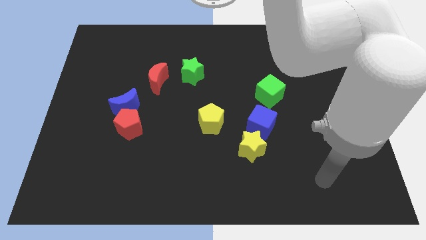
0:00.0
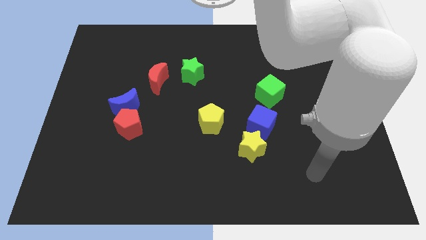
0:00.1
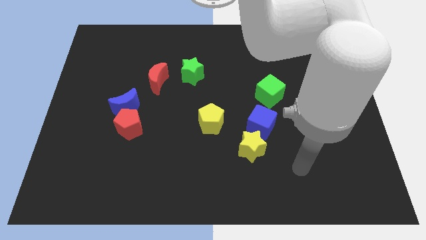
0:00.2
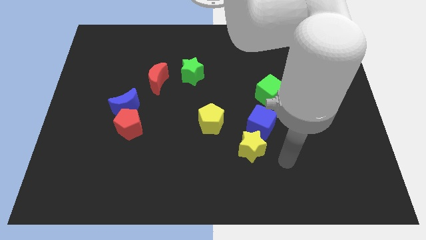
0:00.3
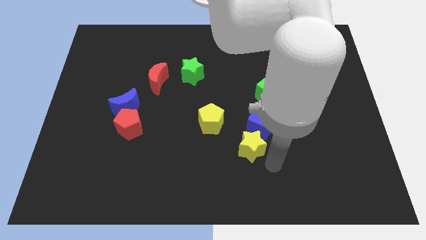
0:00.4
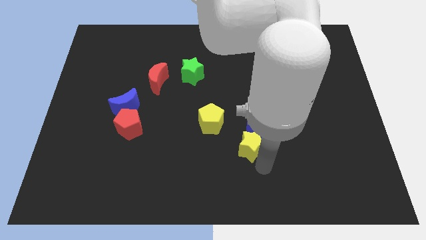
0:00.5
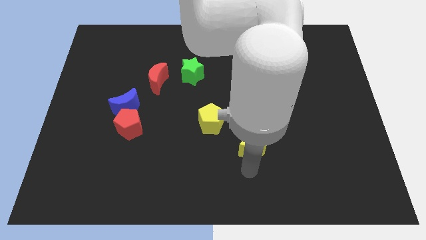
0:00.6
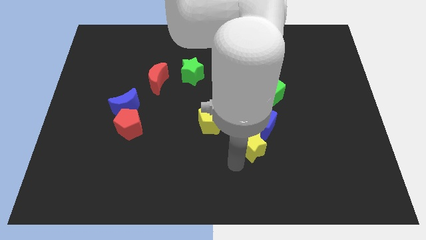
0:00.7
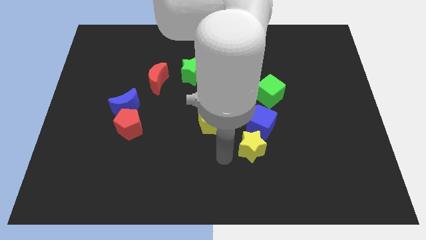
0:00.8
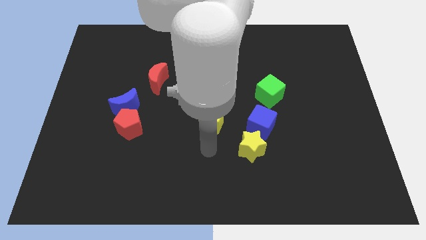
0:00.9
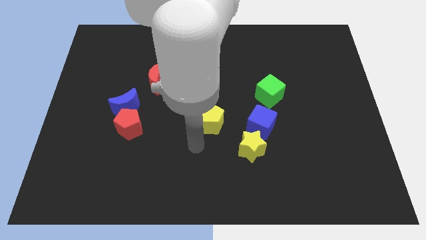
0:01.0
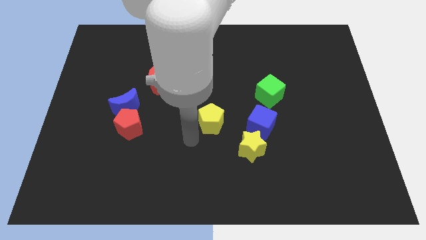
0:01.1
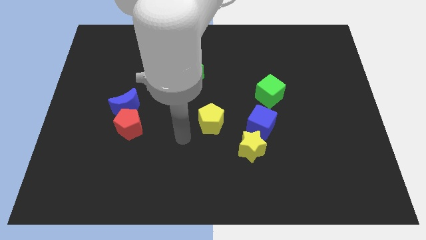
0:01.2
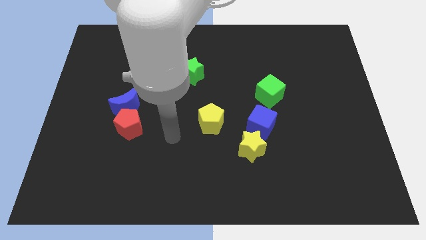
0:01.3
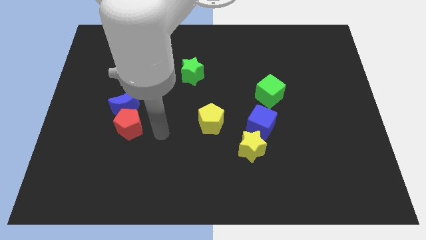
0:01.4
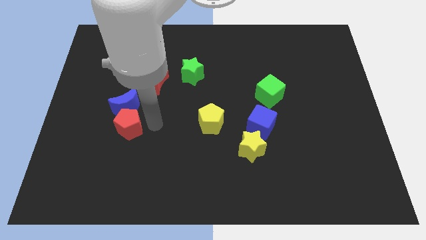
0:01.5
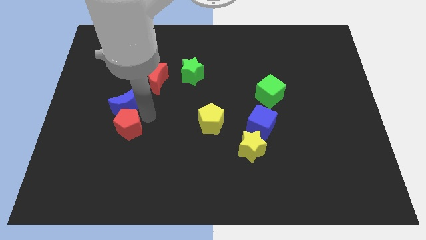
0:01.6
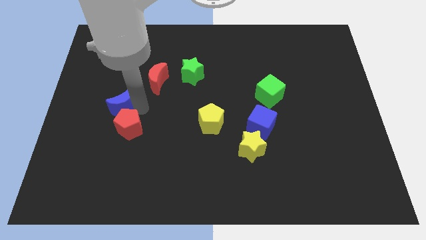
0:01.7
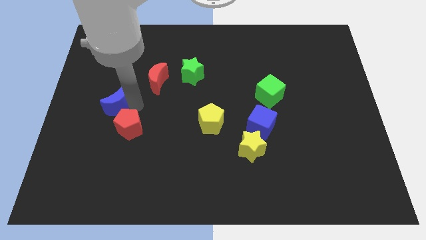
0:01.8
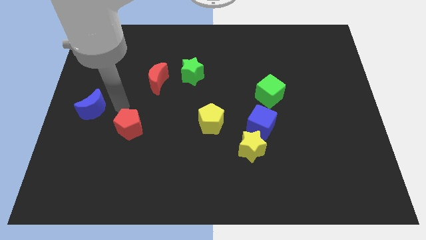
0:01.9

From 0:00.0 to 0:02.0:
pull the red pentagon apart from the blue moon

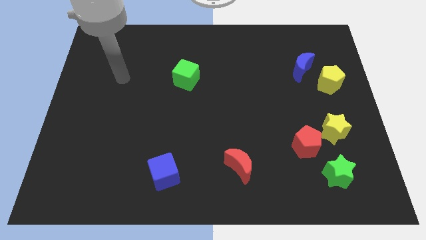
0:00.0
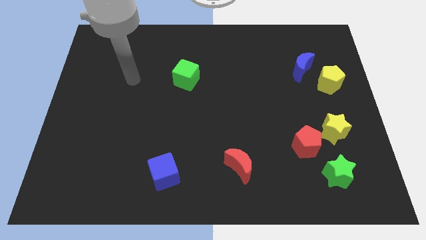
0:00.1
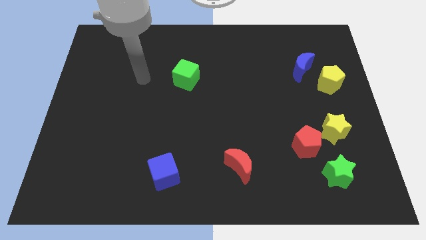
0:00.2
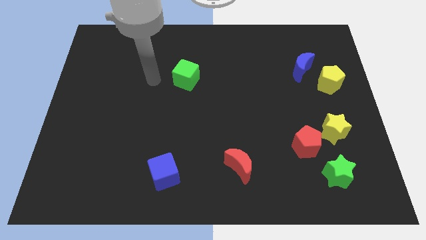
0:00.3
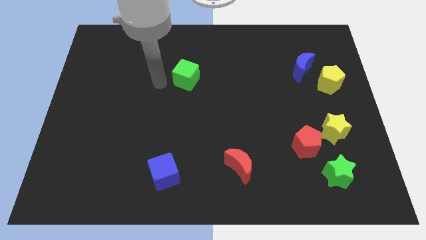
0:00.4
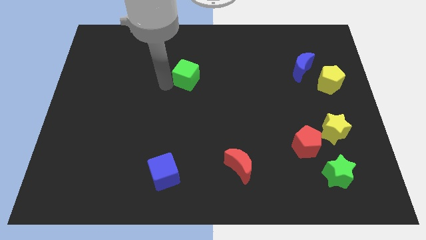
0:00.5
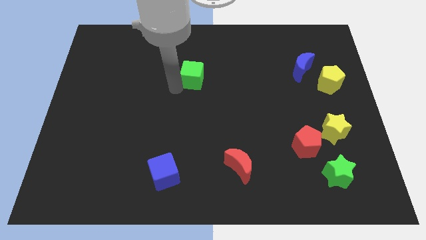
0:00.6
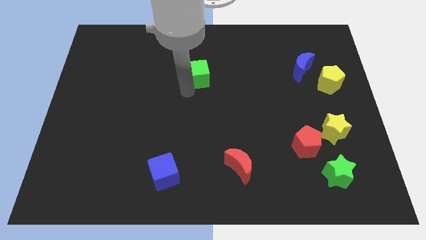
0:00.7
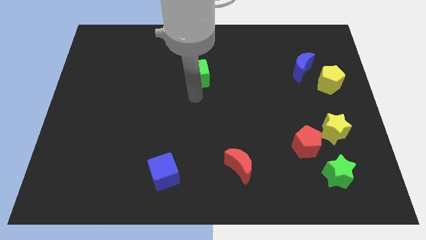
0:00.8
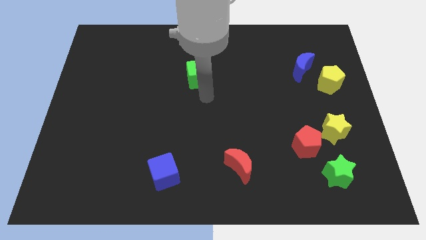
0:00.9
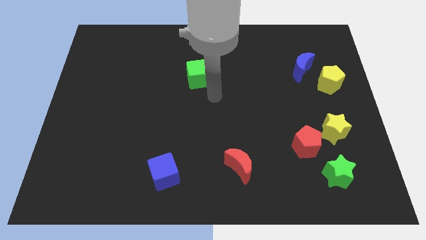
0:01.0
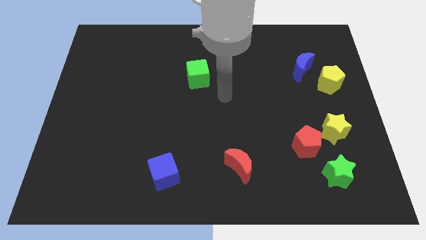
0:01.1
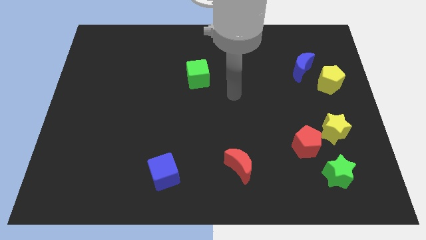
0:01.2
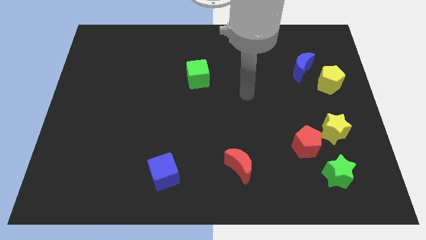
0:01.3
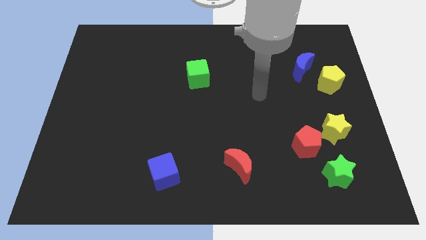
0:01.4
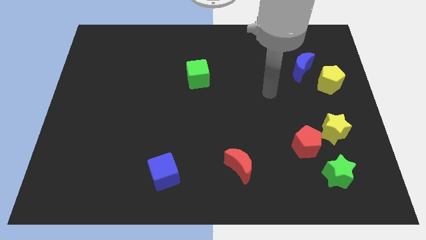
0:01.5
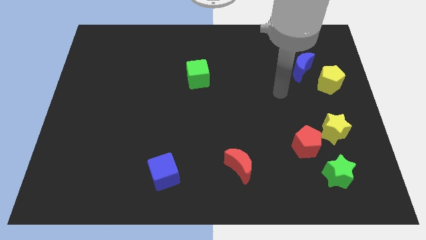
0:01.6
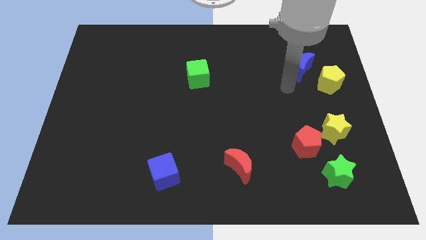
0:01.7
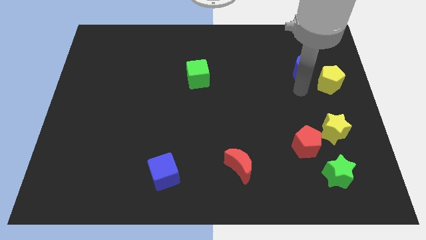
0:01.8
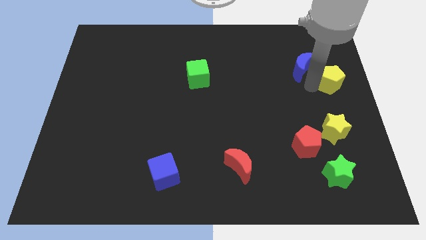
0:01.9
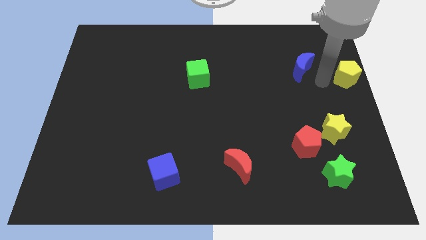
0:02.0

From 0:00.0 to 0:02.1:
separate the blue moon from the yellow pentagon

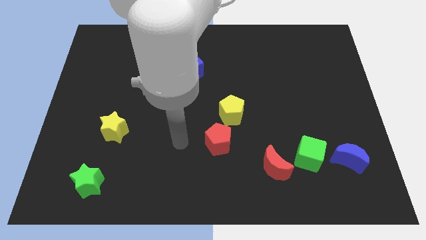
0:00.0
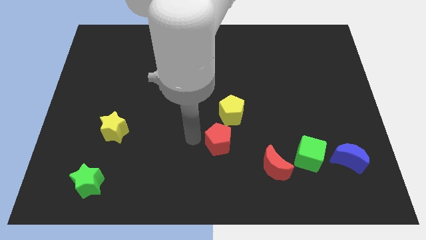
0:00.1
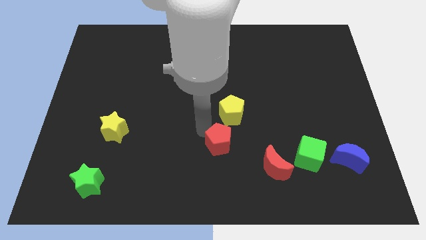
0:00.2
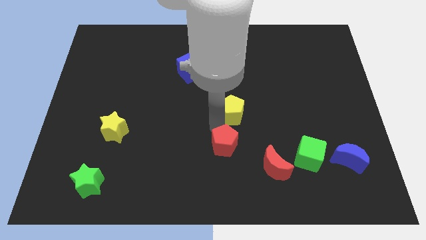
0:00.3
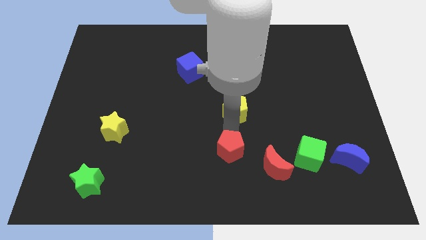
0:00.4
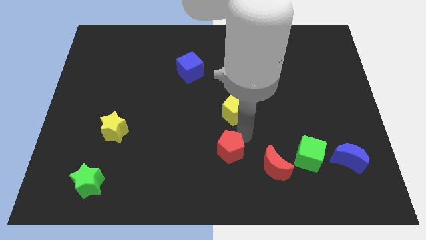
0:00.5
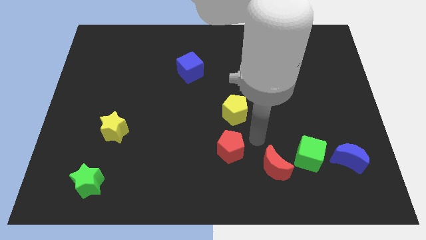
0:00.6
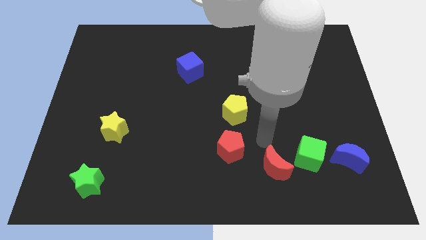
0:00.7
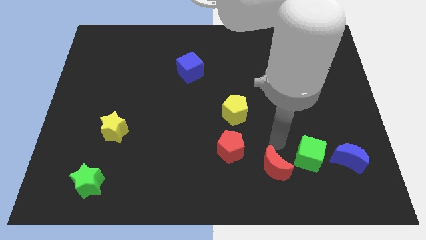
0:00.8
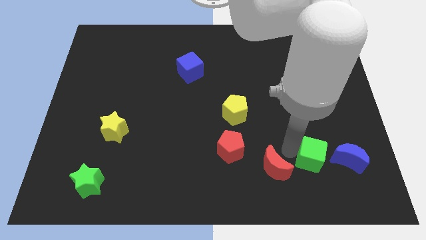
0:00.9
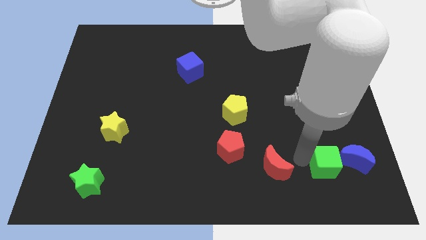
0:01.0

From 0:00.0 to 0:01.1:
separate the red moon from the green cube

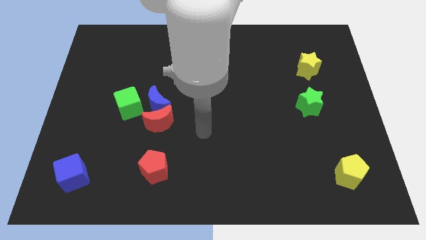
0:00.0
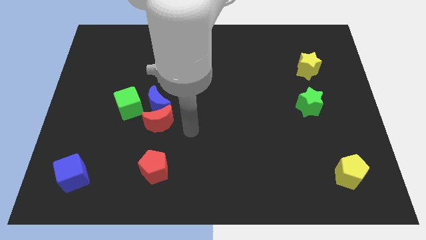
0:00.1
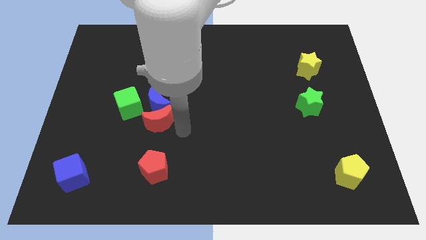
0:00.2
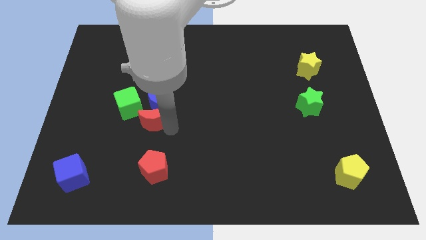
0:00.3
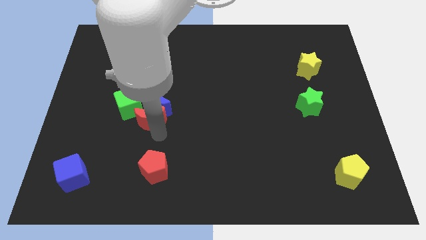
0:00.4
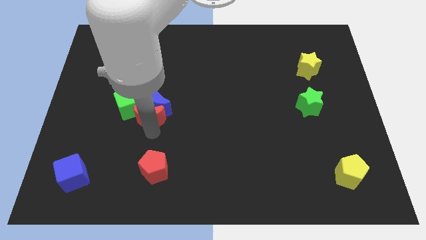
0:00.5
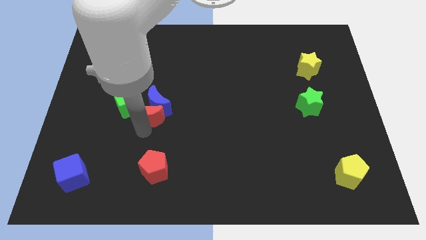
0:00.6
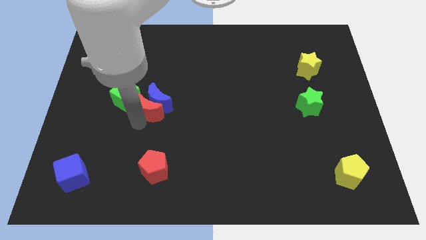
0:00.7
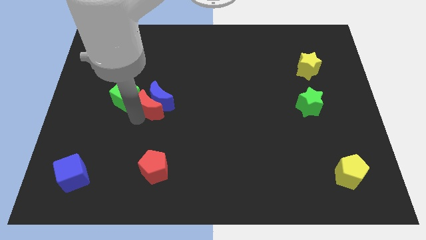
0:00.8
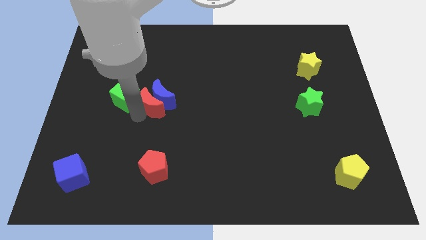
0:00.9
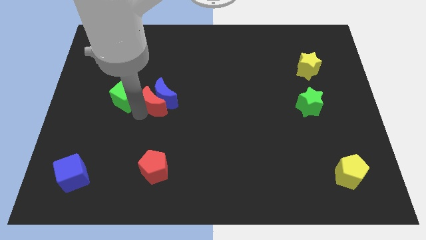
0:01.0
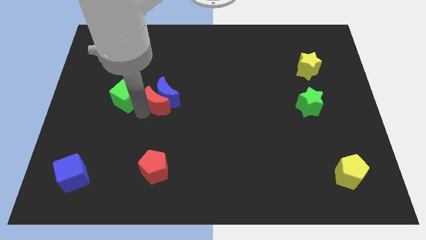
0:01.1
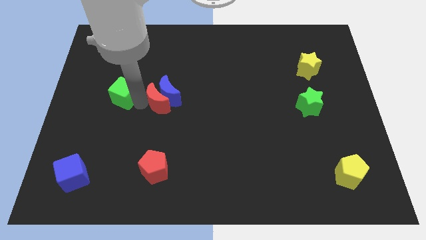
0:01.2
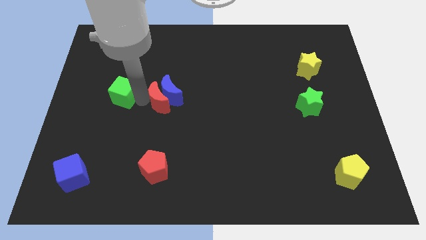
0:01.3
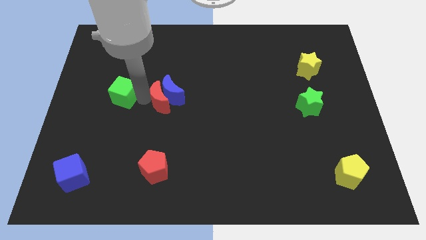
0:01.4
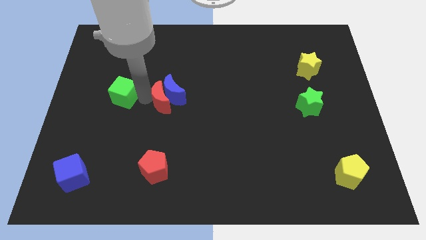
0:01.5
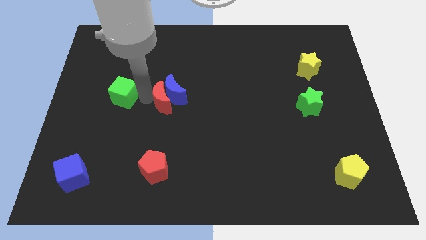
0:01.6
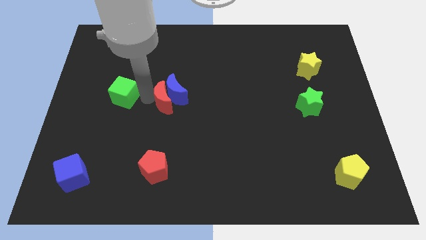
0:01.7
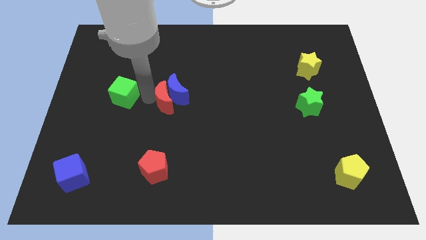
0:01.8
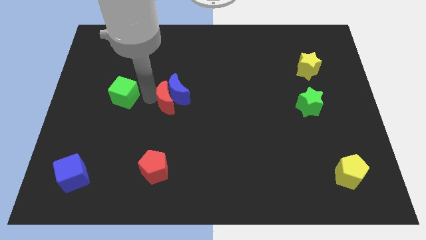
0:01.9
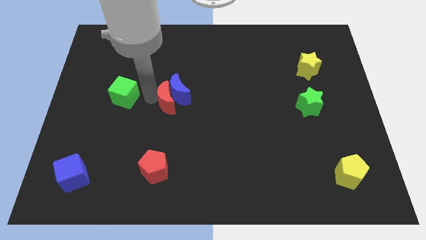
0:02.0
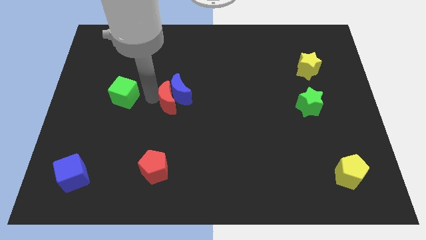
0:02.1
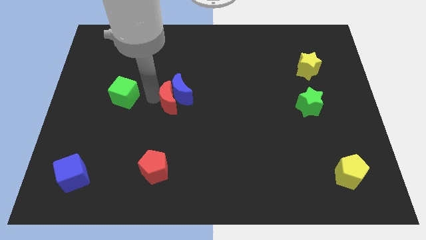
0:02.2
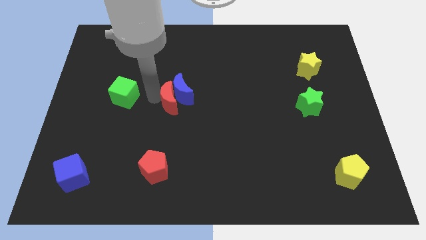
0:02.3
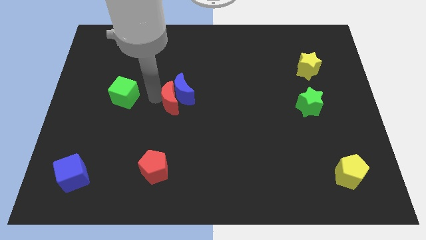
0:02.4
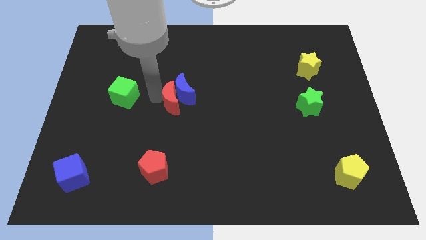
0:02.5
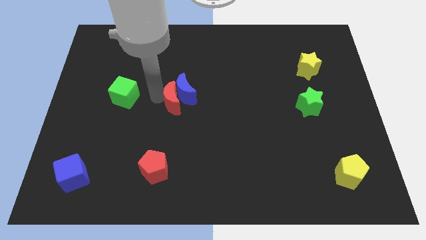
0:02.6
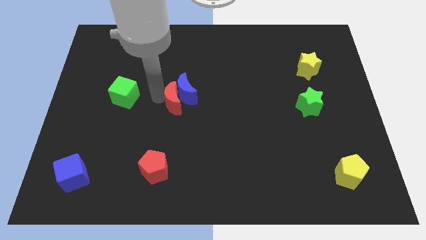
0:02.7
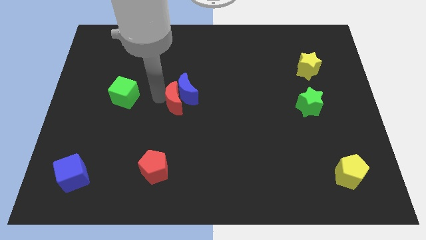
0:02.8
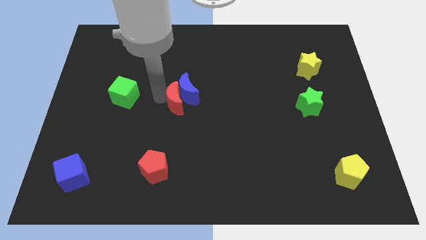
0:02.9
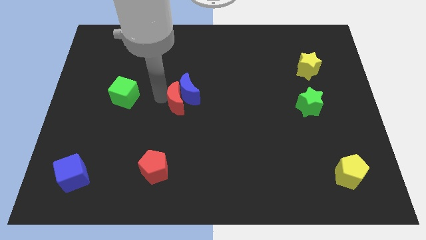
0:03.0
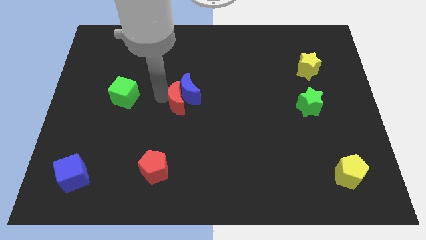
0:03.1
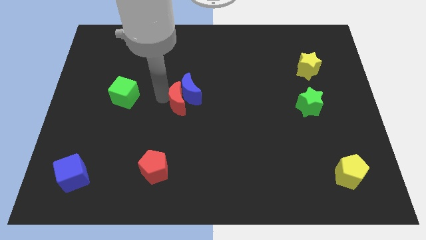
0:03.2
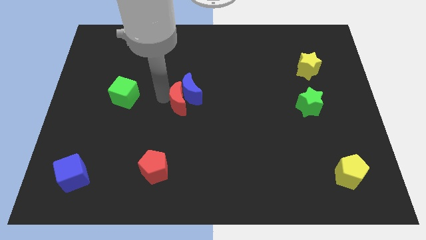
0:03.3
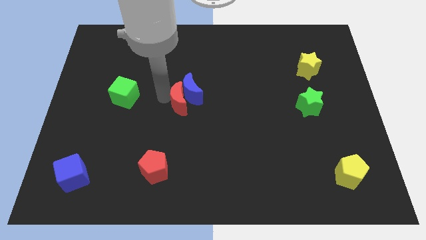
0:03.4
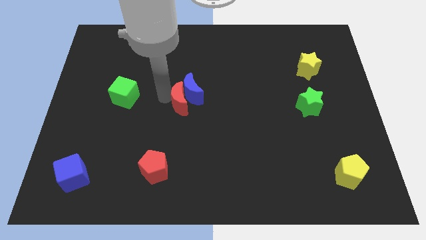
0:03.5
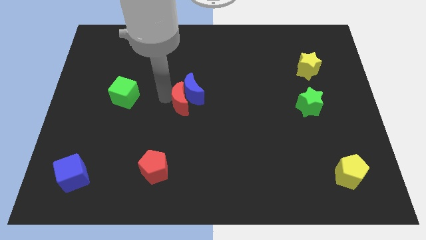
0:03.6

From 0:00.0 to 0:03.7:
separate the blue moon from the red moon and green cube

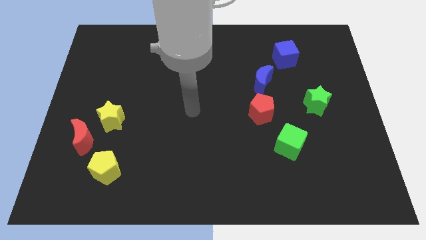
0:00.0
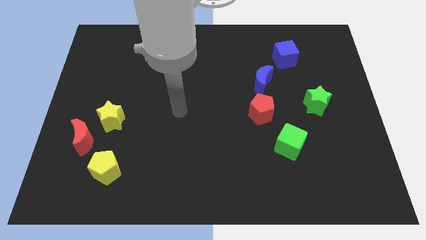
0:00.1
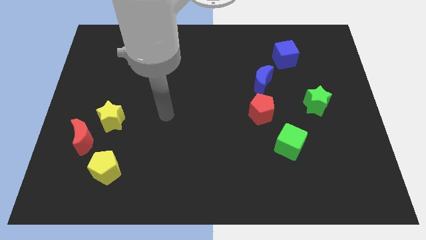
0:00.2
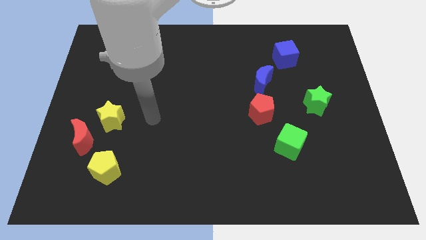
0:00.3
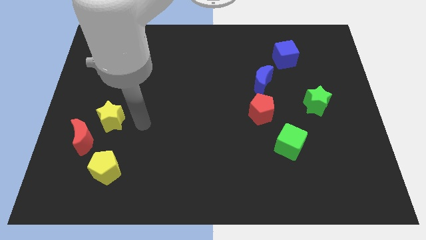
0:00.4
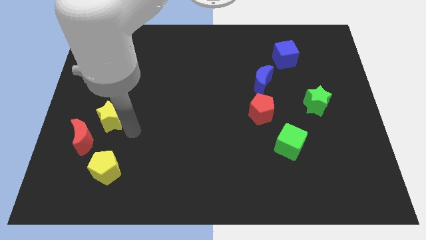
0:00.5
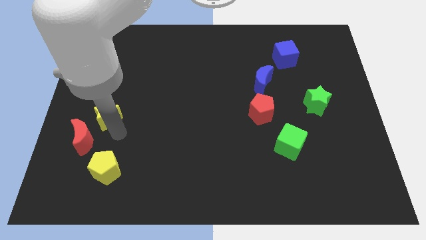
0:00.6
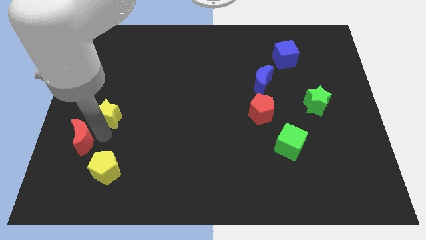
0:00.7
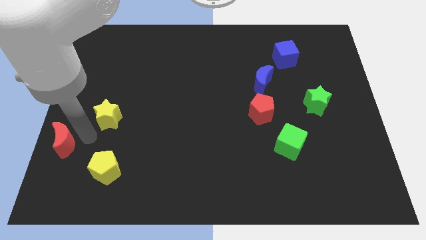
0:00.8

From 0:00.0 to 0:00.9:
pull the yellow star apart from the red moon
